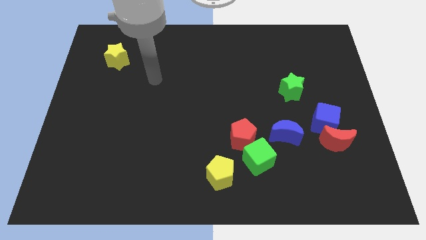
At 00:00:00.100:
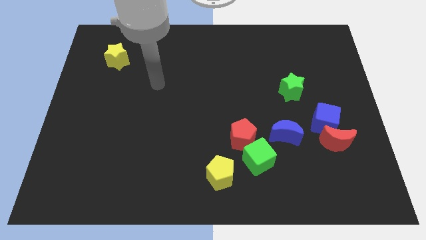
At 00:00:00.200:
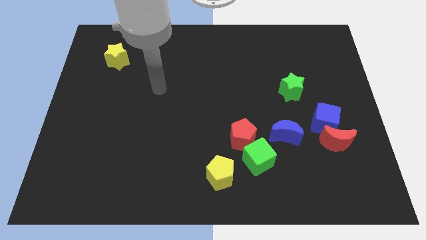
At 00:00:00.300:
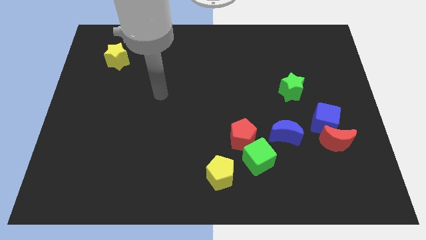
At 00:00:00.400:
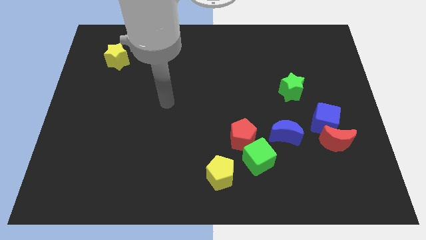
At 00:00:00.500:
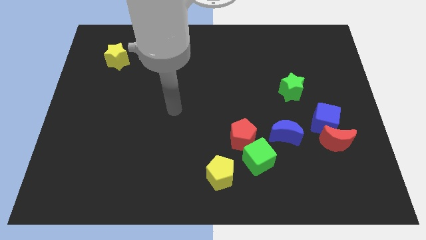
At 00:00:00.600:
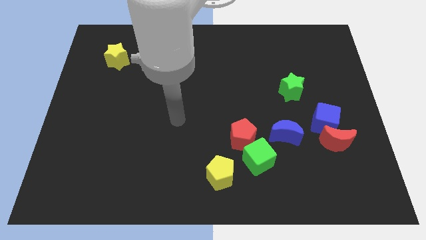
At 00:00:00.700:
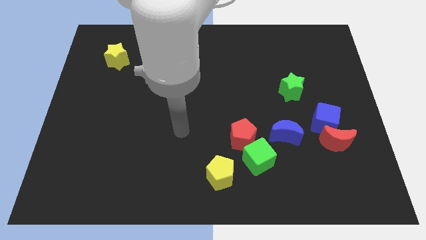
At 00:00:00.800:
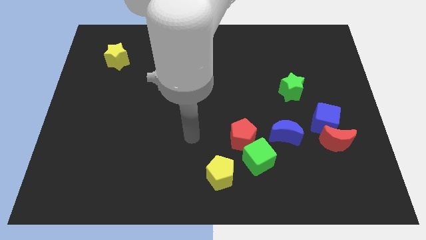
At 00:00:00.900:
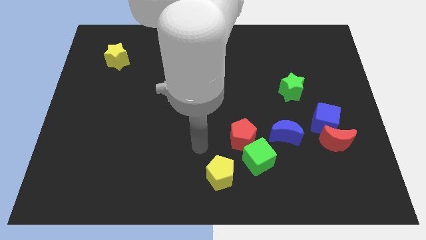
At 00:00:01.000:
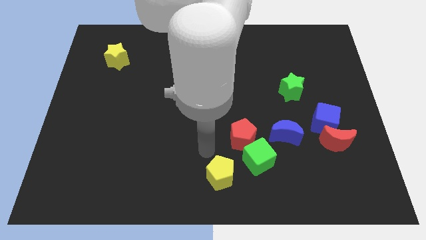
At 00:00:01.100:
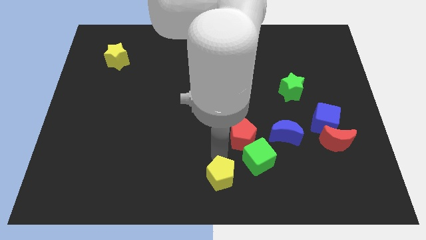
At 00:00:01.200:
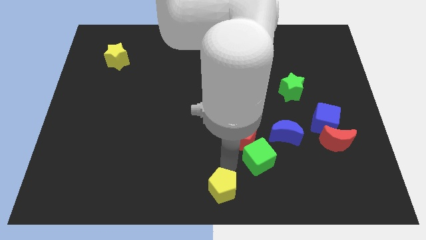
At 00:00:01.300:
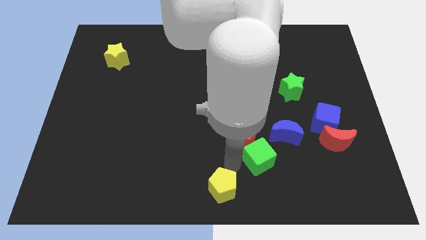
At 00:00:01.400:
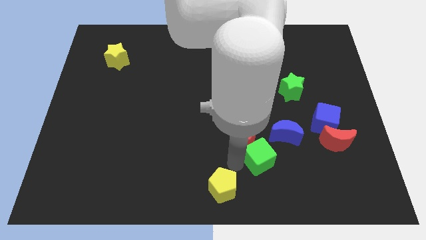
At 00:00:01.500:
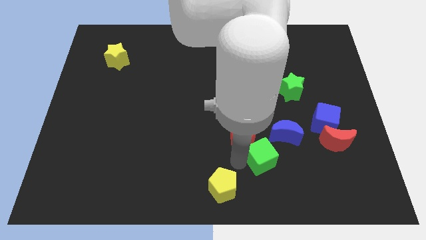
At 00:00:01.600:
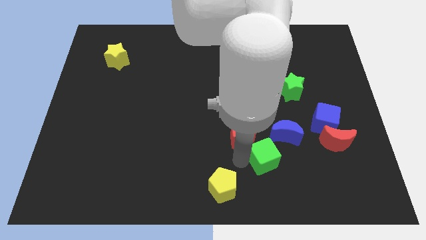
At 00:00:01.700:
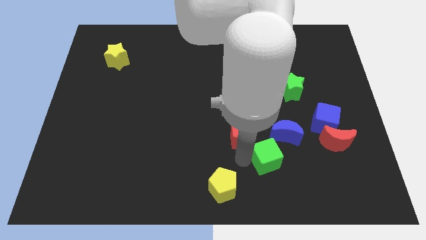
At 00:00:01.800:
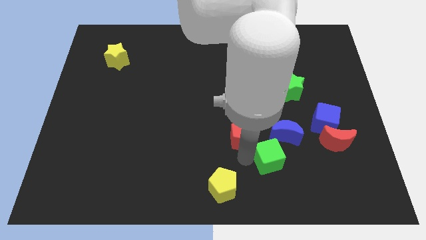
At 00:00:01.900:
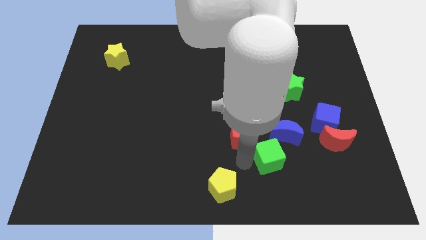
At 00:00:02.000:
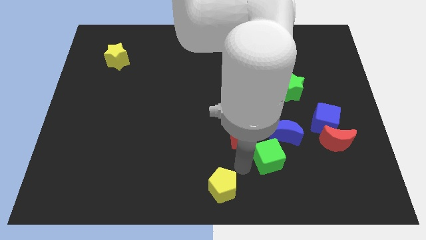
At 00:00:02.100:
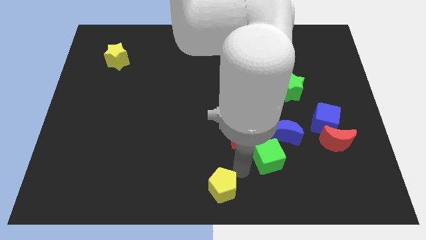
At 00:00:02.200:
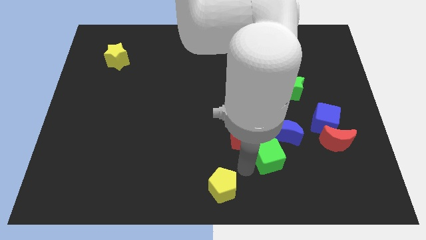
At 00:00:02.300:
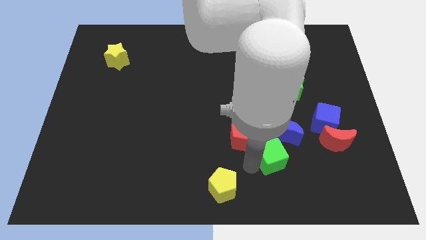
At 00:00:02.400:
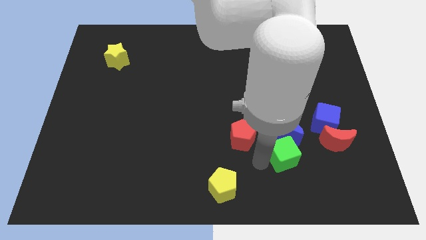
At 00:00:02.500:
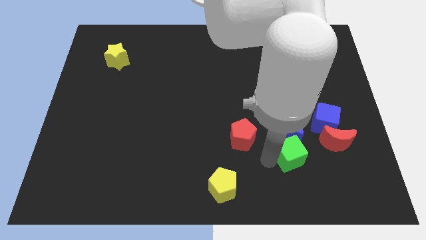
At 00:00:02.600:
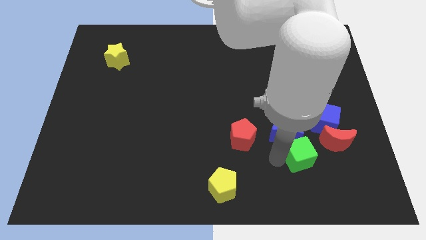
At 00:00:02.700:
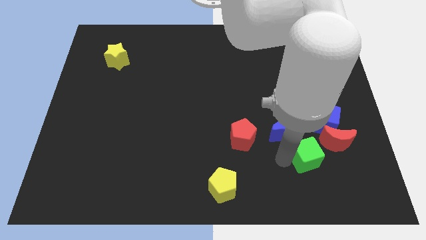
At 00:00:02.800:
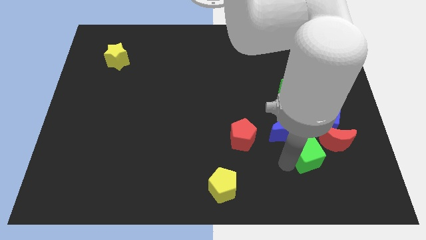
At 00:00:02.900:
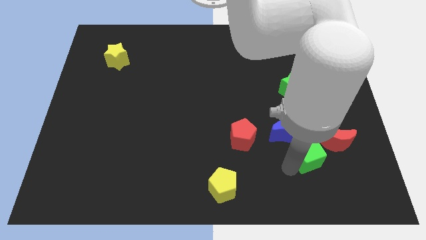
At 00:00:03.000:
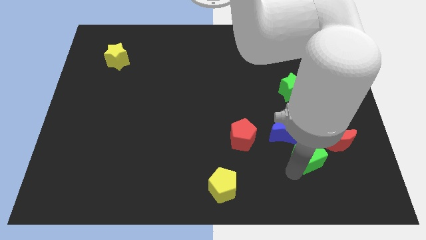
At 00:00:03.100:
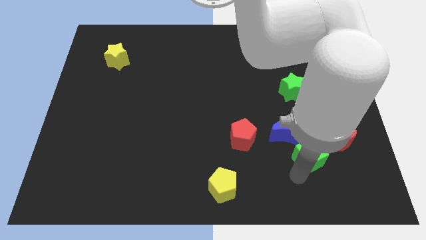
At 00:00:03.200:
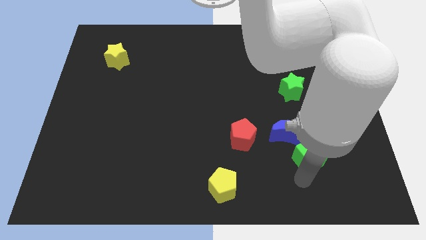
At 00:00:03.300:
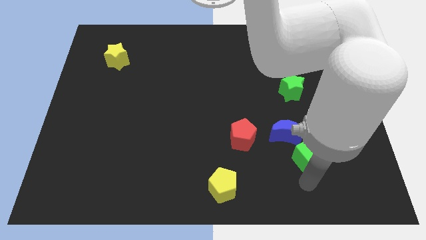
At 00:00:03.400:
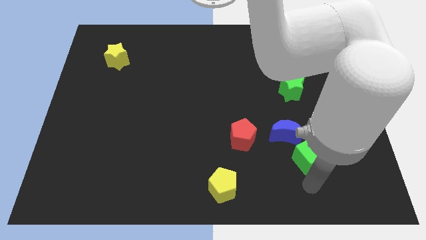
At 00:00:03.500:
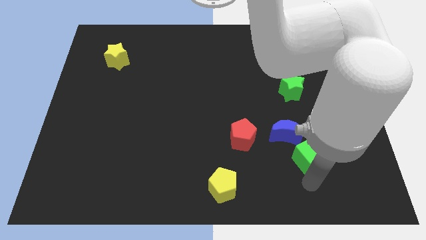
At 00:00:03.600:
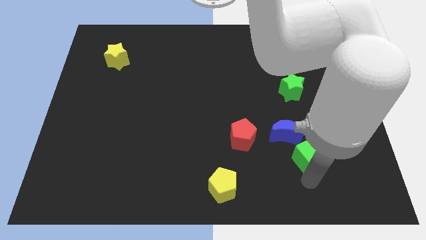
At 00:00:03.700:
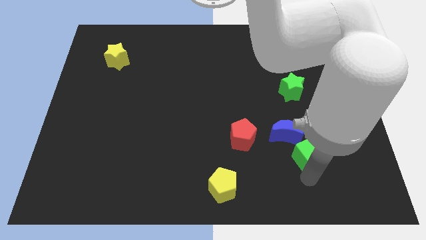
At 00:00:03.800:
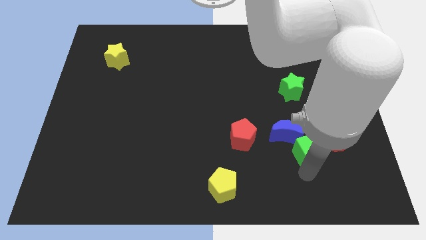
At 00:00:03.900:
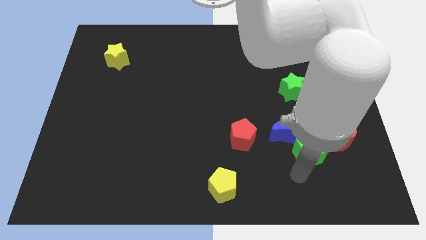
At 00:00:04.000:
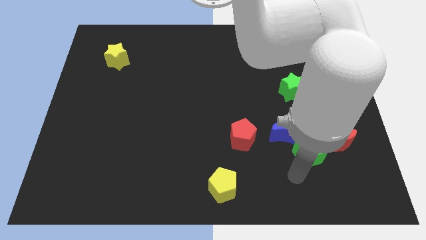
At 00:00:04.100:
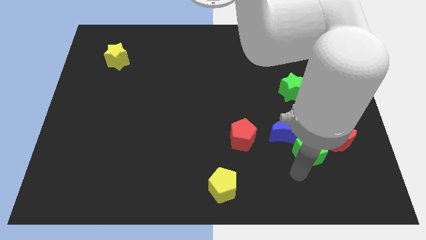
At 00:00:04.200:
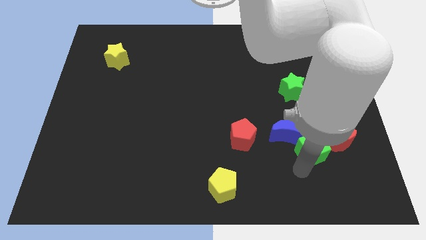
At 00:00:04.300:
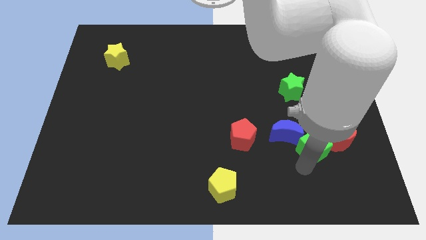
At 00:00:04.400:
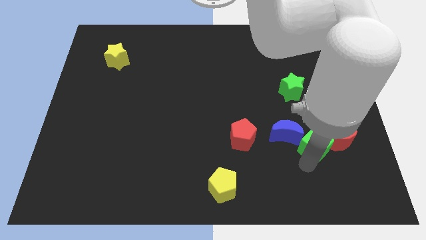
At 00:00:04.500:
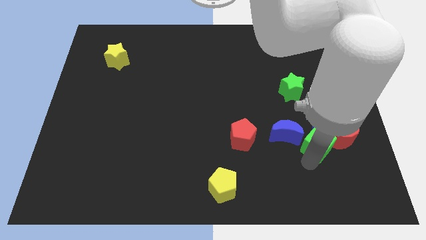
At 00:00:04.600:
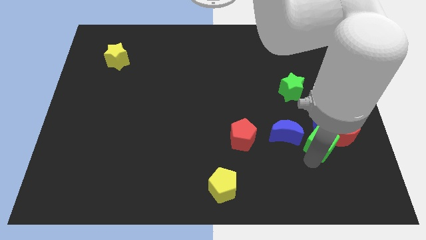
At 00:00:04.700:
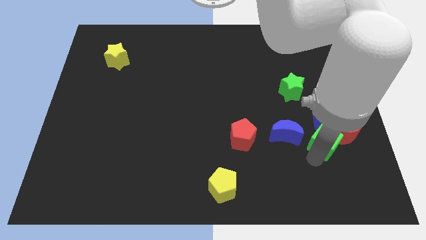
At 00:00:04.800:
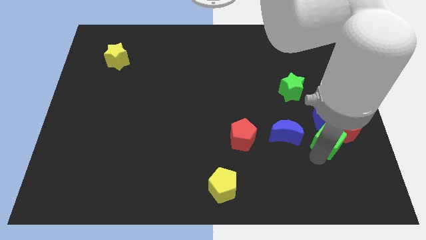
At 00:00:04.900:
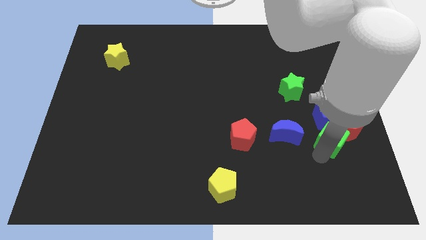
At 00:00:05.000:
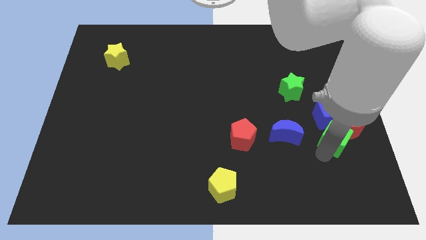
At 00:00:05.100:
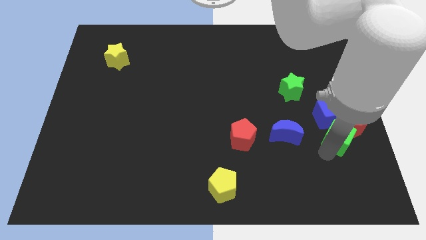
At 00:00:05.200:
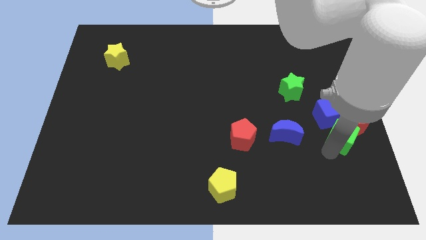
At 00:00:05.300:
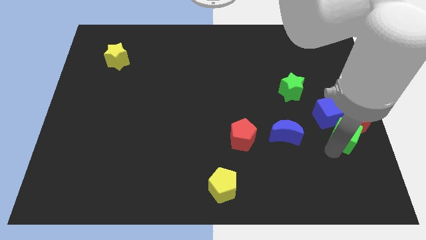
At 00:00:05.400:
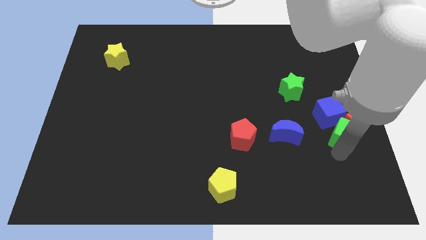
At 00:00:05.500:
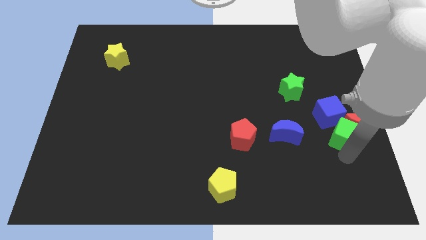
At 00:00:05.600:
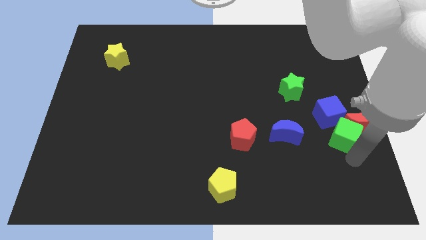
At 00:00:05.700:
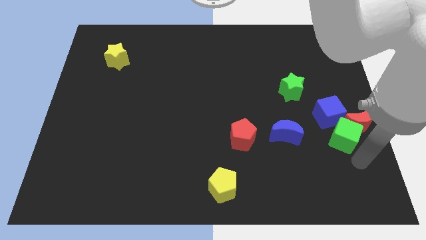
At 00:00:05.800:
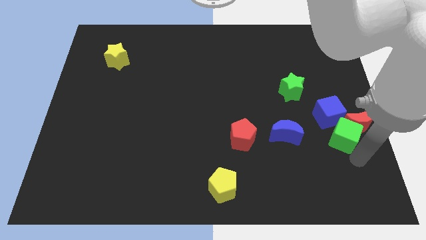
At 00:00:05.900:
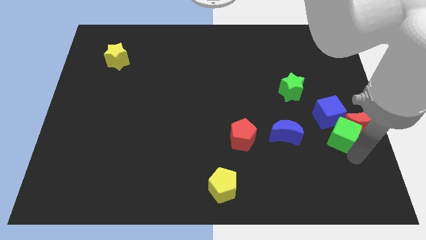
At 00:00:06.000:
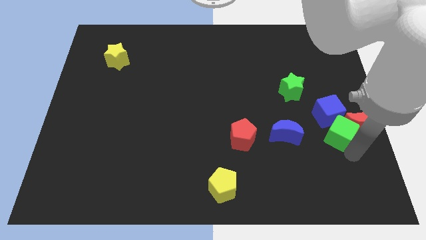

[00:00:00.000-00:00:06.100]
move the green cube towards the blue cube

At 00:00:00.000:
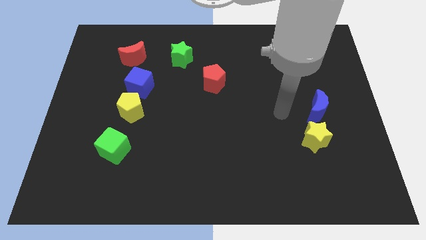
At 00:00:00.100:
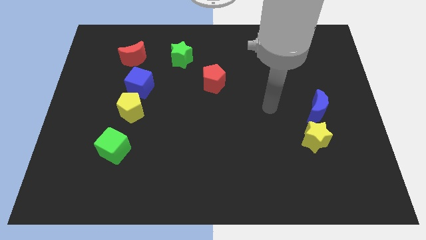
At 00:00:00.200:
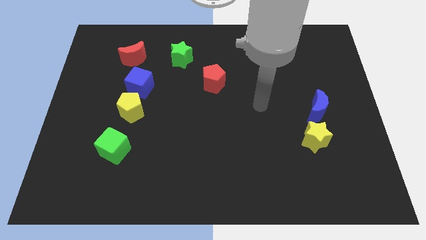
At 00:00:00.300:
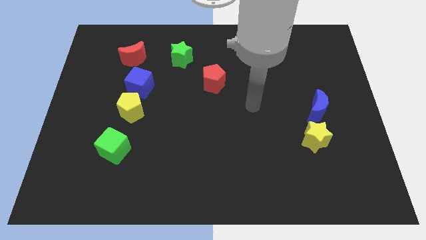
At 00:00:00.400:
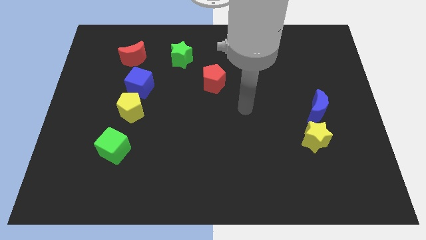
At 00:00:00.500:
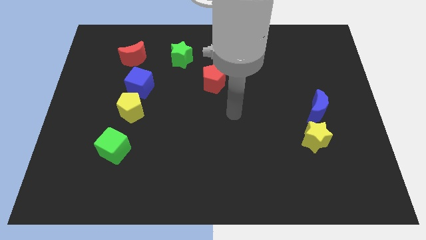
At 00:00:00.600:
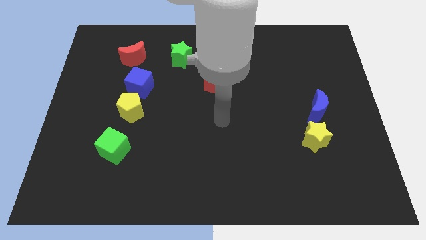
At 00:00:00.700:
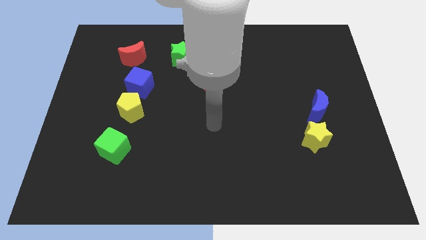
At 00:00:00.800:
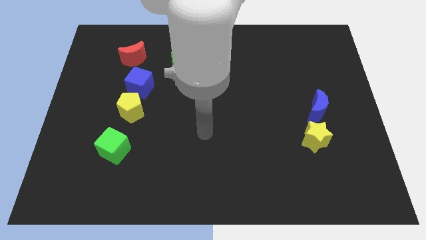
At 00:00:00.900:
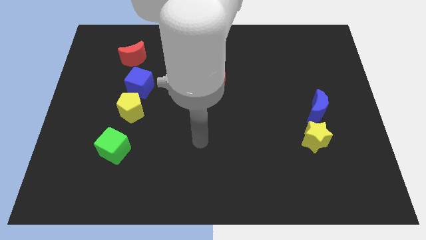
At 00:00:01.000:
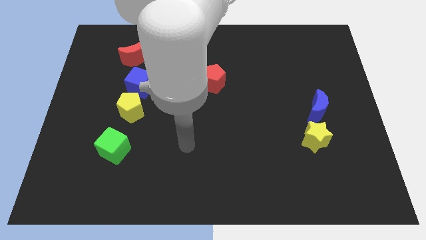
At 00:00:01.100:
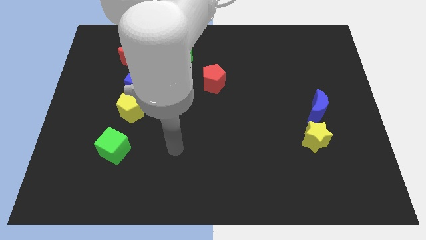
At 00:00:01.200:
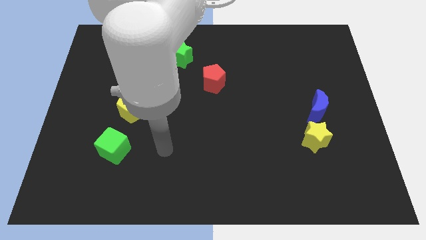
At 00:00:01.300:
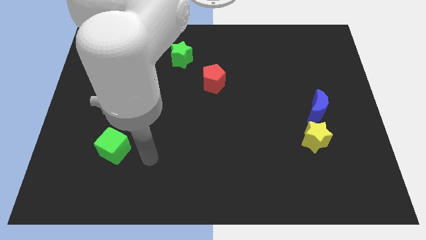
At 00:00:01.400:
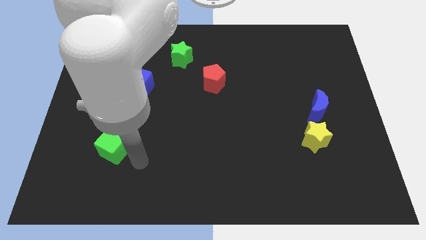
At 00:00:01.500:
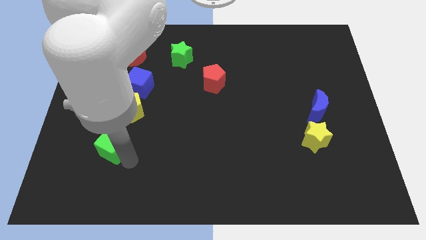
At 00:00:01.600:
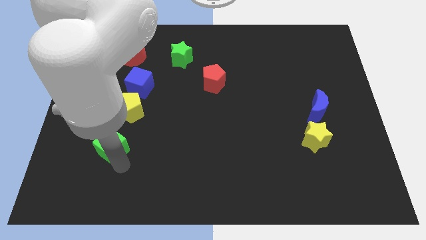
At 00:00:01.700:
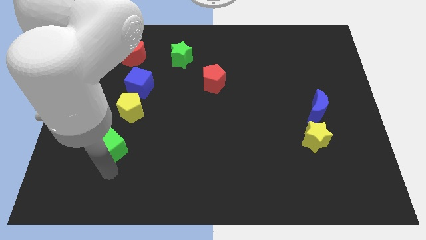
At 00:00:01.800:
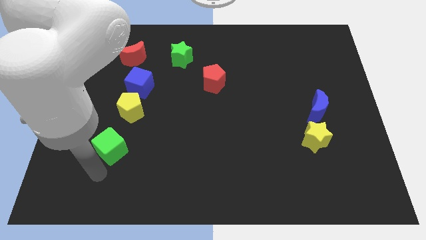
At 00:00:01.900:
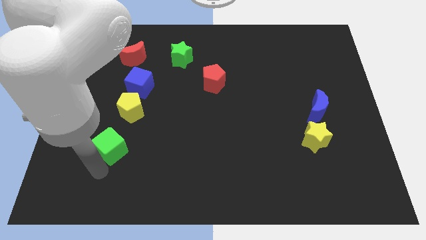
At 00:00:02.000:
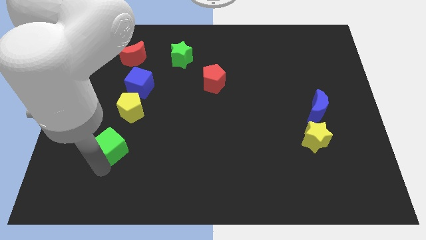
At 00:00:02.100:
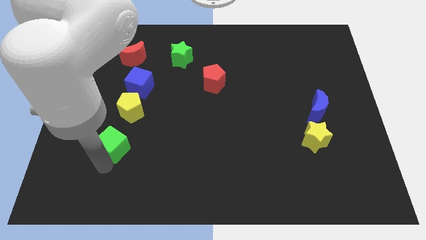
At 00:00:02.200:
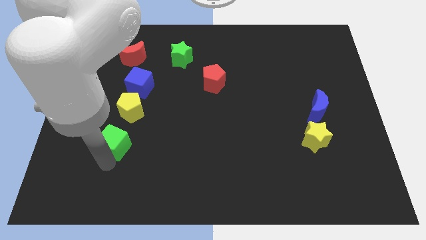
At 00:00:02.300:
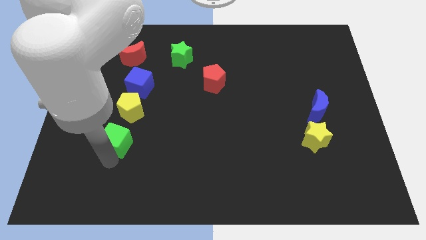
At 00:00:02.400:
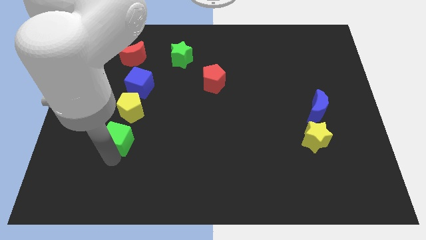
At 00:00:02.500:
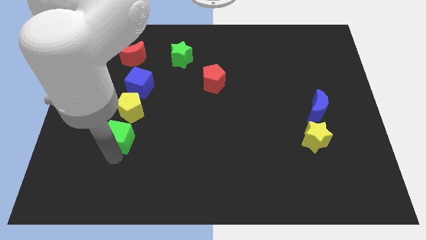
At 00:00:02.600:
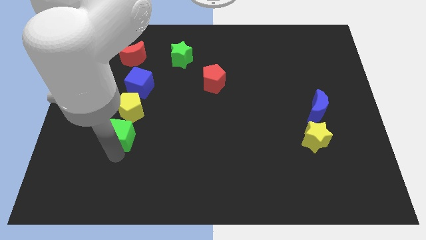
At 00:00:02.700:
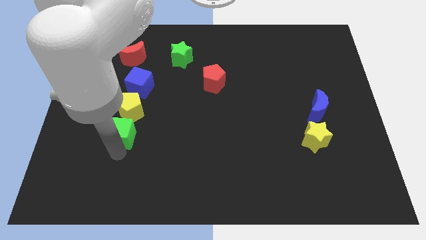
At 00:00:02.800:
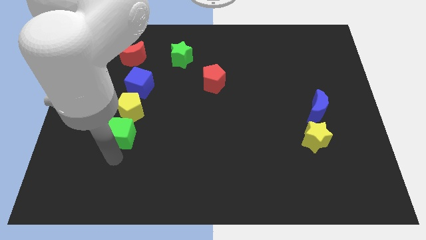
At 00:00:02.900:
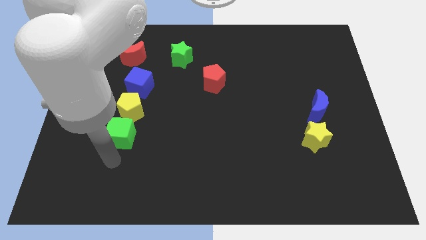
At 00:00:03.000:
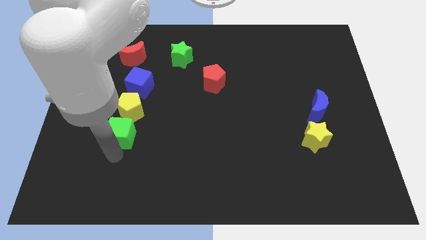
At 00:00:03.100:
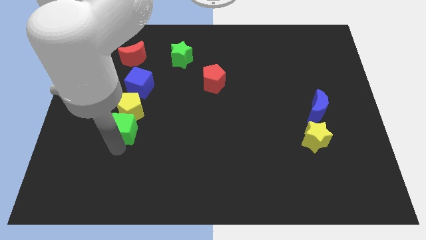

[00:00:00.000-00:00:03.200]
move the green cube to the yellow pentagon
